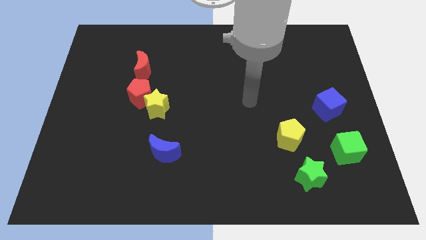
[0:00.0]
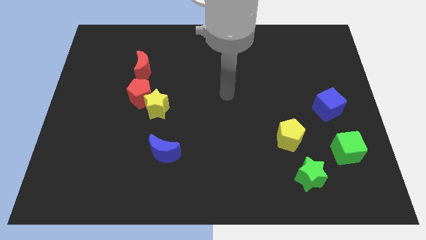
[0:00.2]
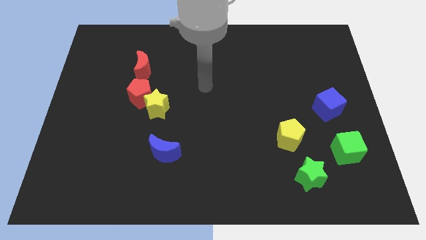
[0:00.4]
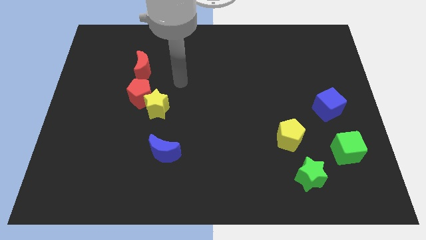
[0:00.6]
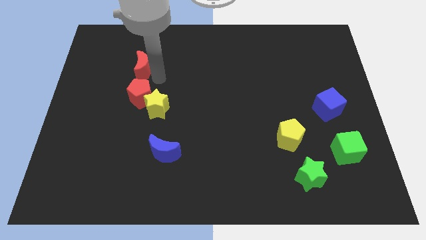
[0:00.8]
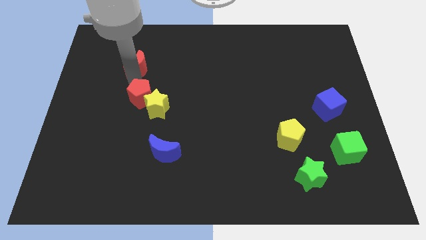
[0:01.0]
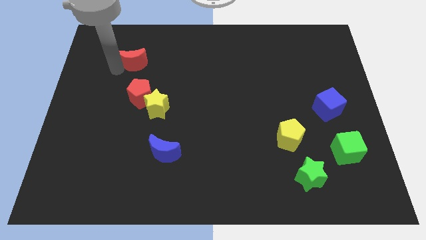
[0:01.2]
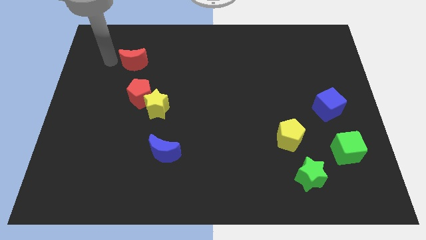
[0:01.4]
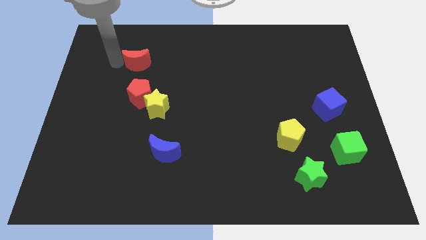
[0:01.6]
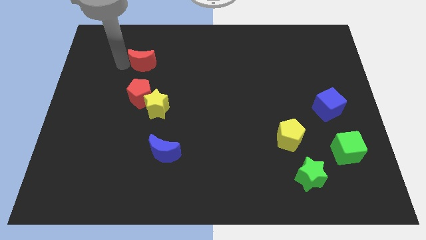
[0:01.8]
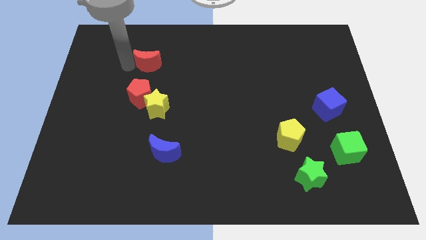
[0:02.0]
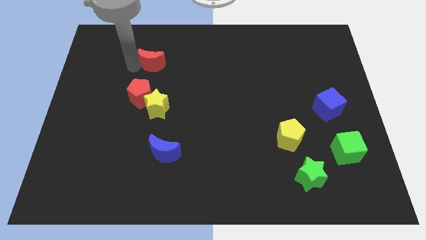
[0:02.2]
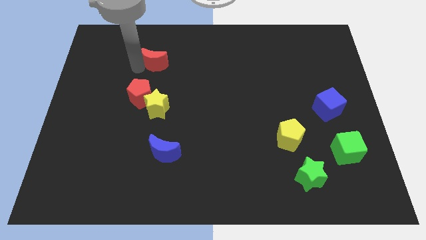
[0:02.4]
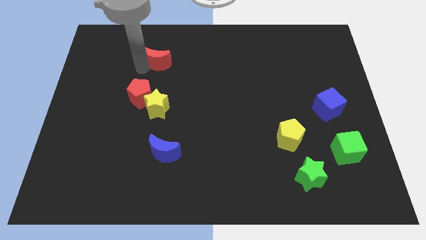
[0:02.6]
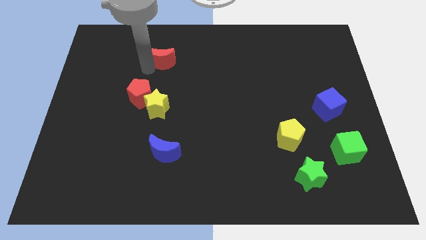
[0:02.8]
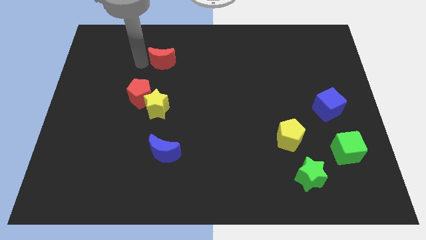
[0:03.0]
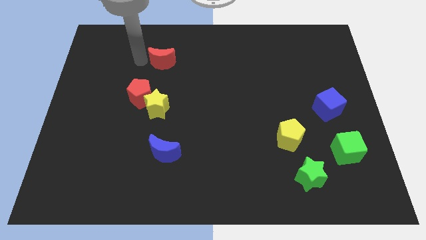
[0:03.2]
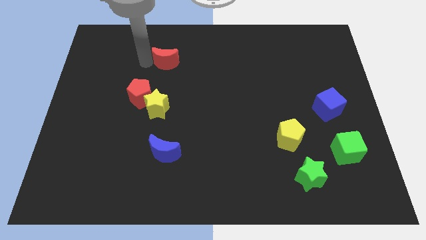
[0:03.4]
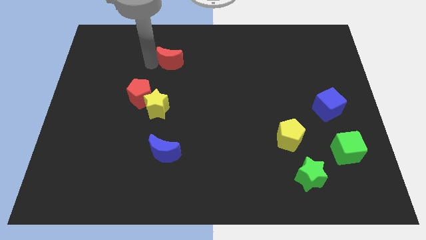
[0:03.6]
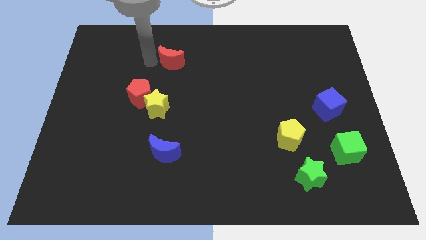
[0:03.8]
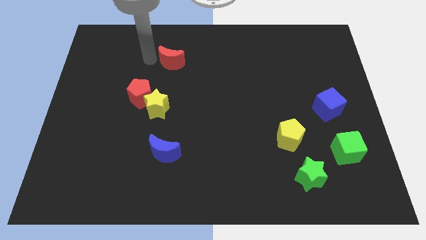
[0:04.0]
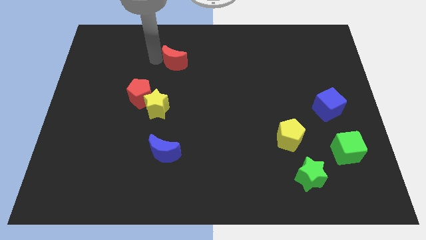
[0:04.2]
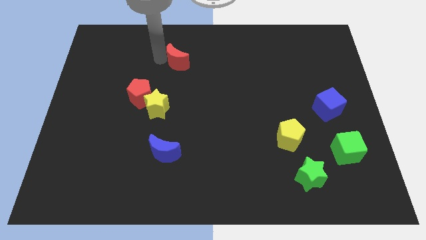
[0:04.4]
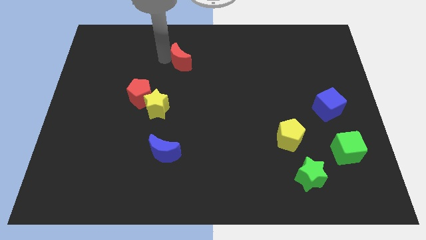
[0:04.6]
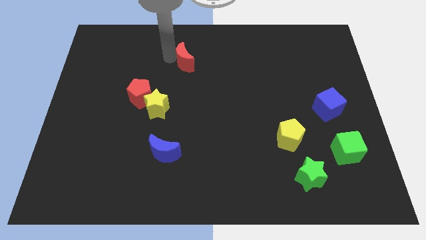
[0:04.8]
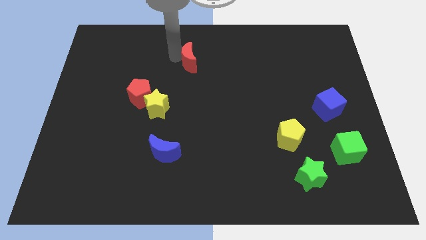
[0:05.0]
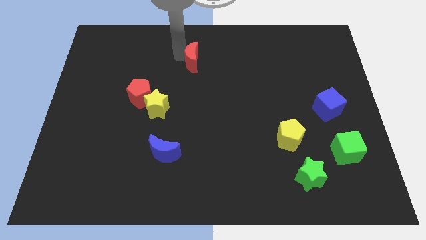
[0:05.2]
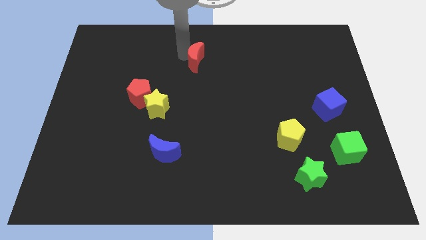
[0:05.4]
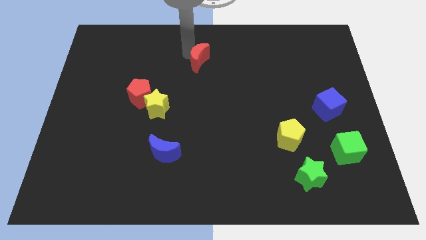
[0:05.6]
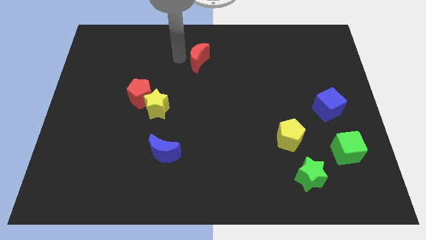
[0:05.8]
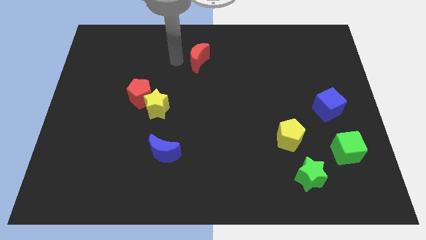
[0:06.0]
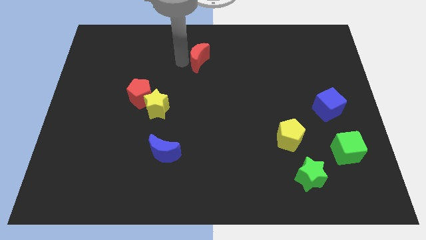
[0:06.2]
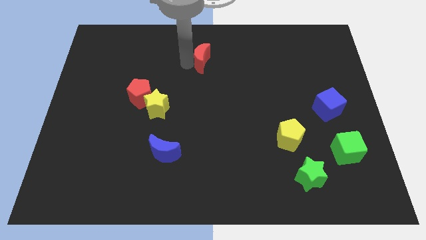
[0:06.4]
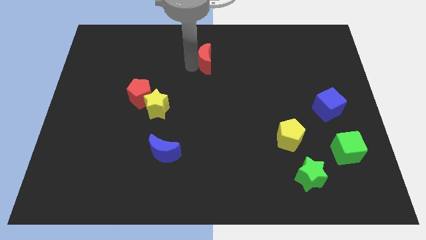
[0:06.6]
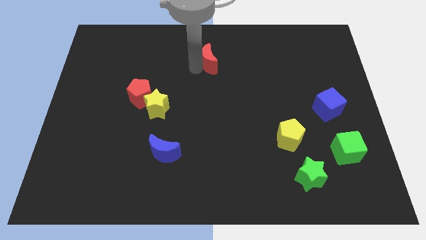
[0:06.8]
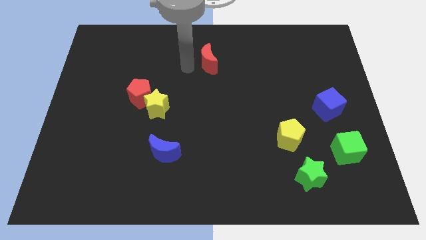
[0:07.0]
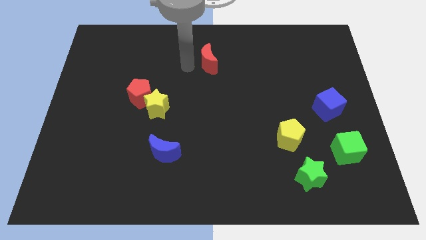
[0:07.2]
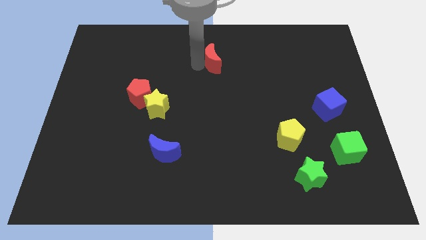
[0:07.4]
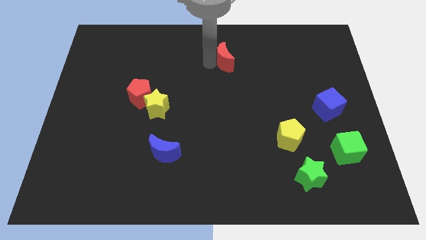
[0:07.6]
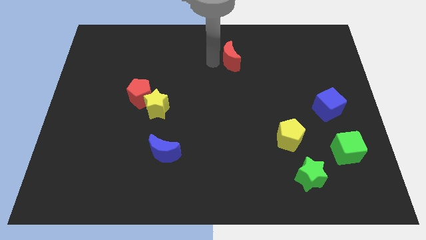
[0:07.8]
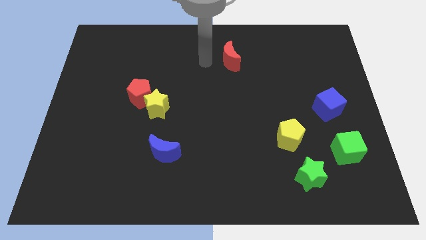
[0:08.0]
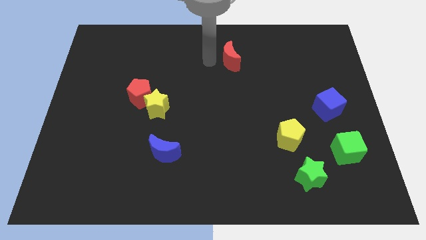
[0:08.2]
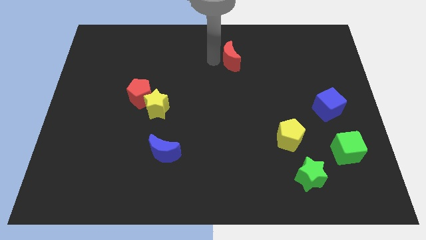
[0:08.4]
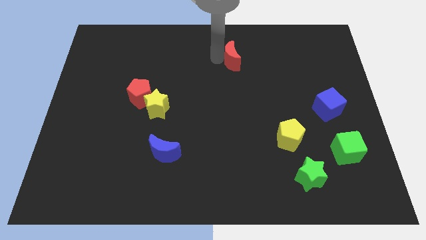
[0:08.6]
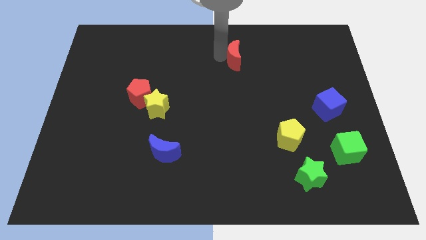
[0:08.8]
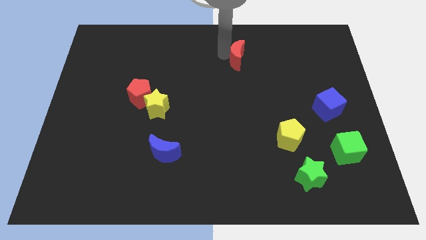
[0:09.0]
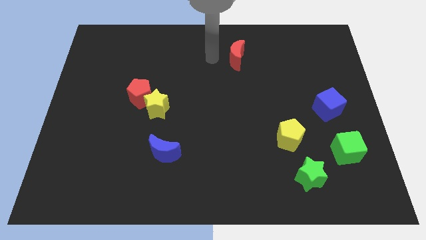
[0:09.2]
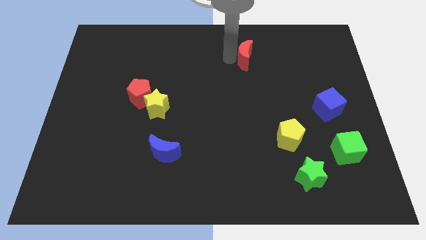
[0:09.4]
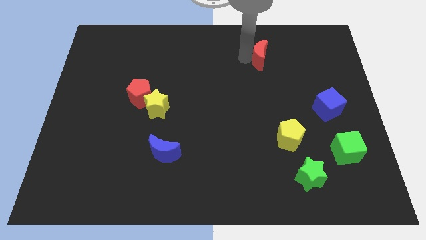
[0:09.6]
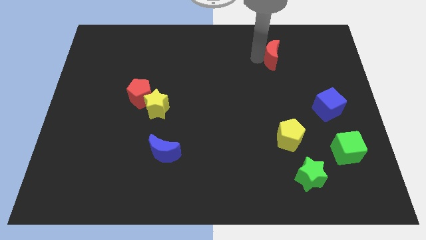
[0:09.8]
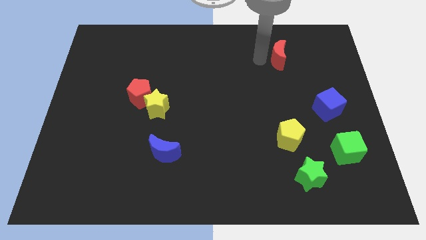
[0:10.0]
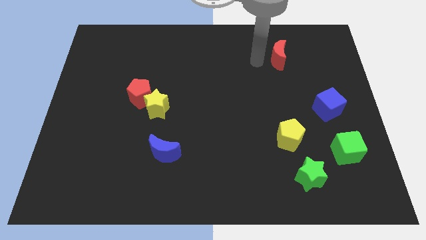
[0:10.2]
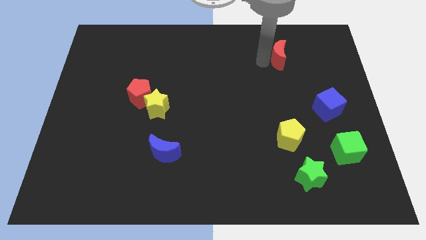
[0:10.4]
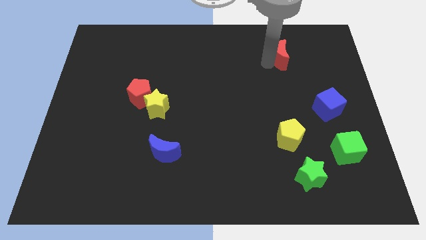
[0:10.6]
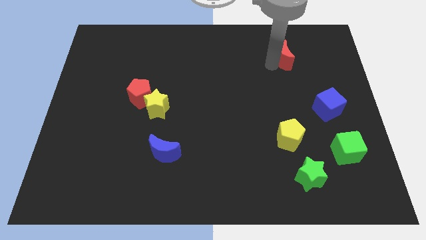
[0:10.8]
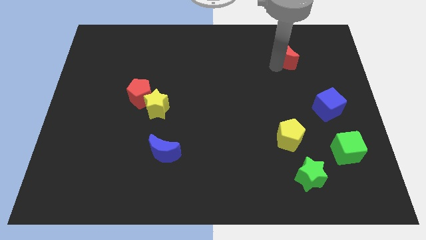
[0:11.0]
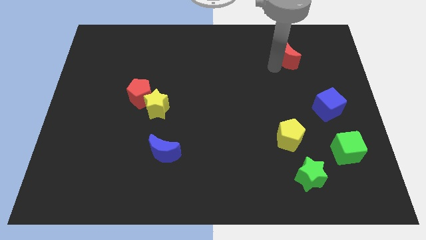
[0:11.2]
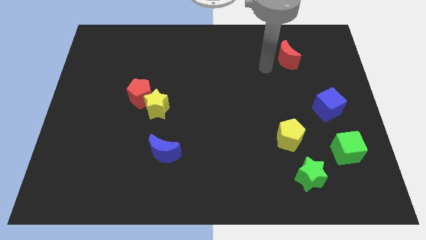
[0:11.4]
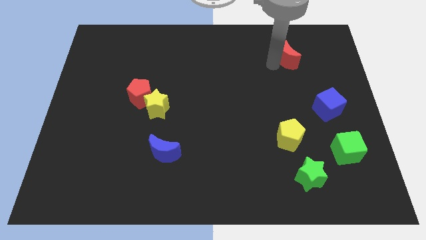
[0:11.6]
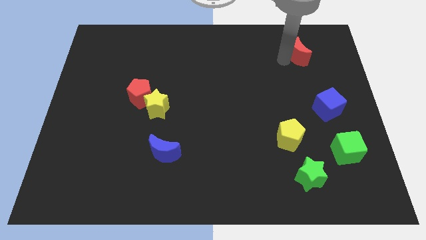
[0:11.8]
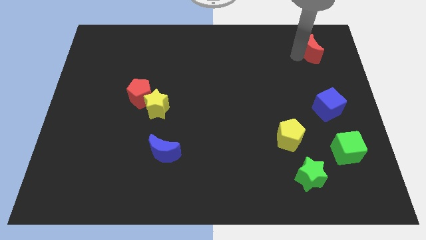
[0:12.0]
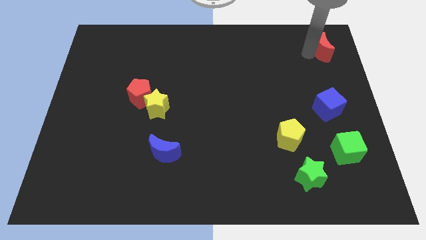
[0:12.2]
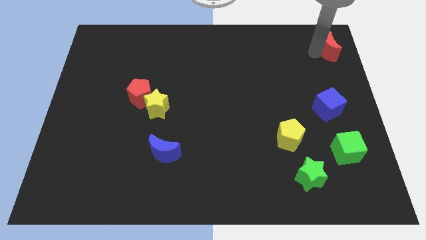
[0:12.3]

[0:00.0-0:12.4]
move the red moon to the top right
